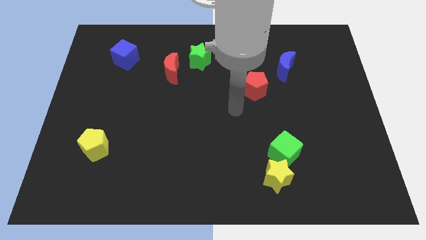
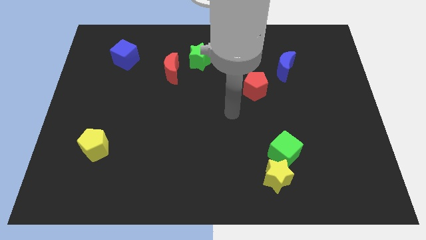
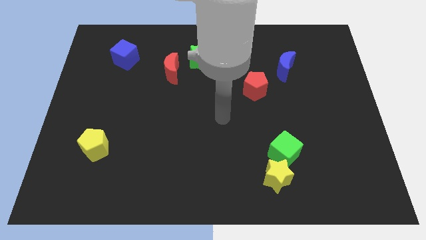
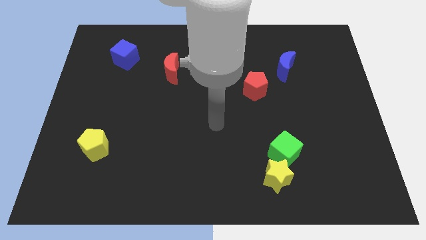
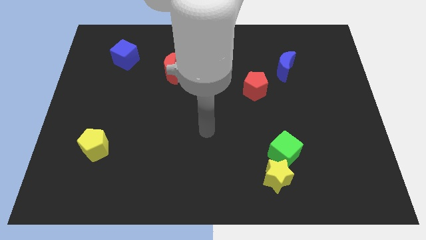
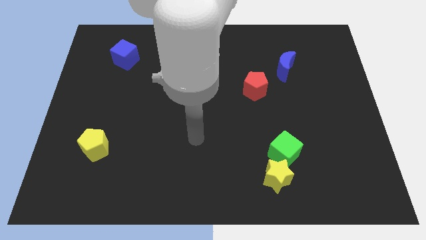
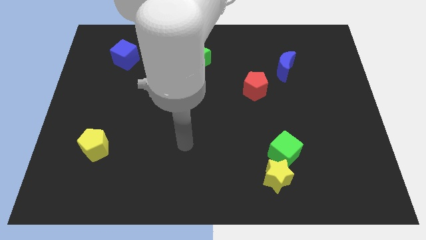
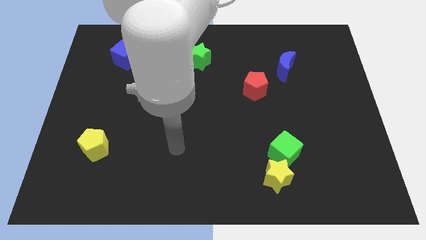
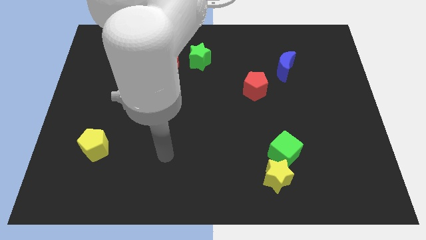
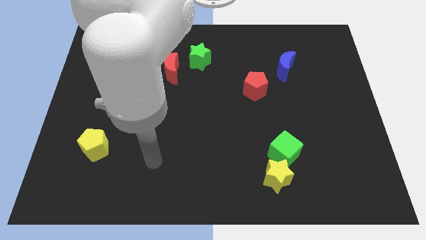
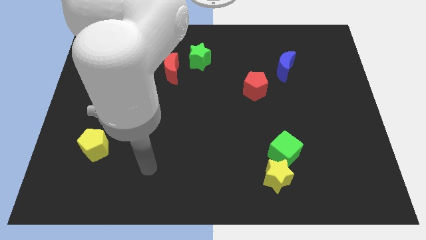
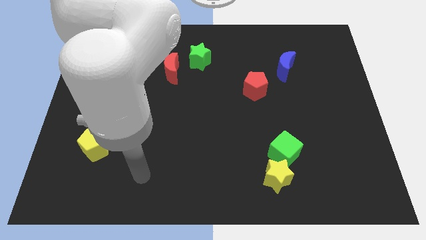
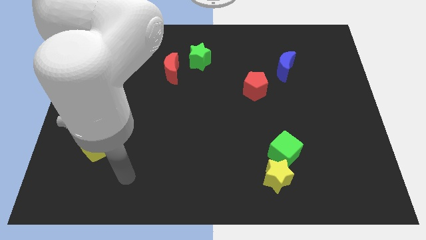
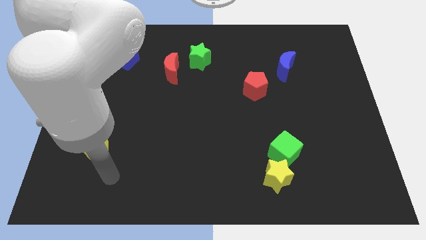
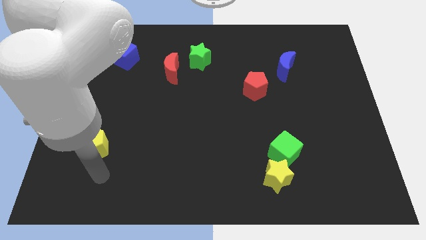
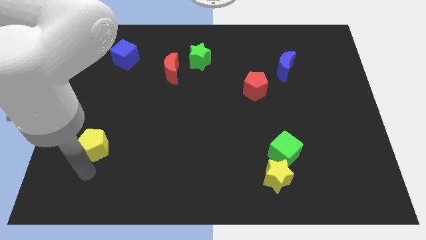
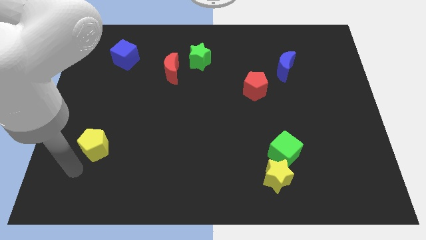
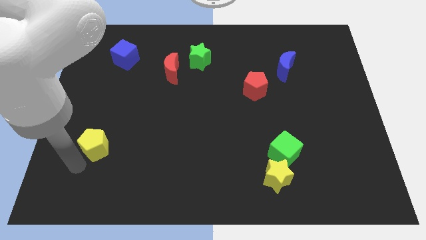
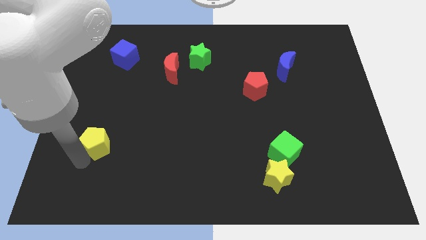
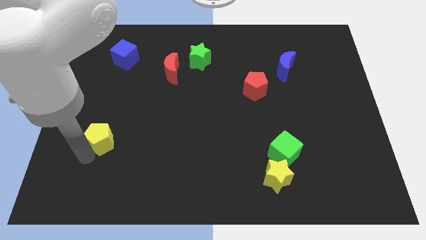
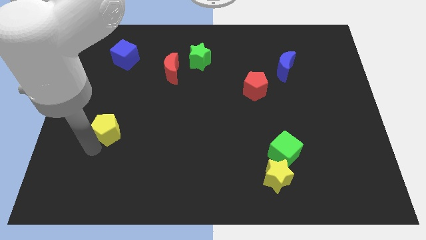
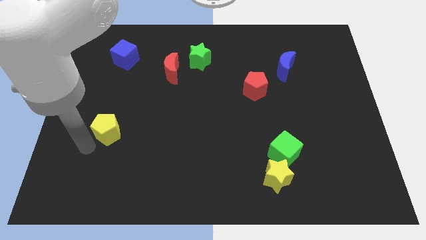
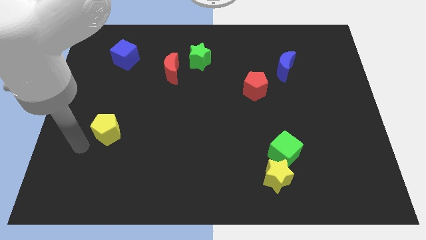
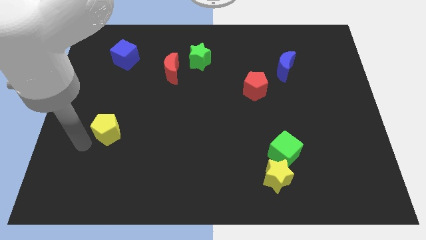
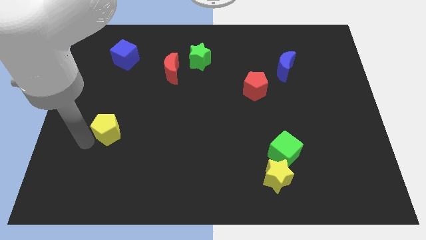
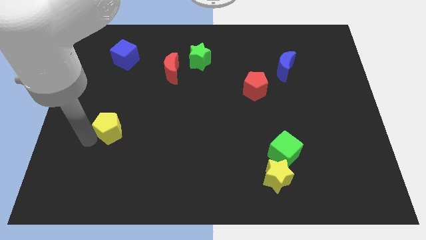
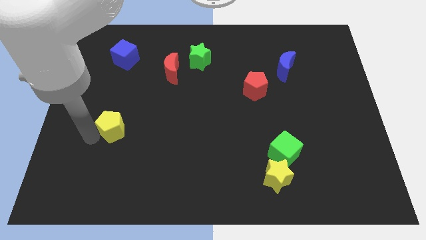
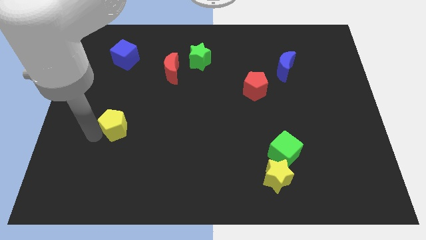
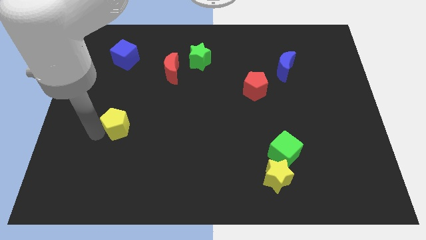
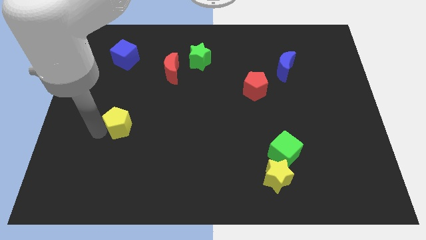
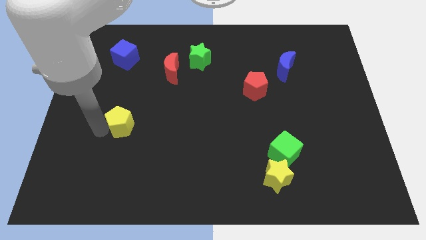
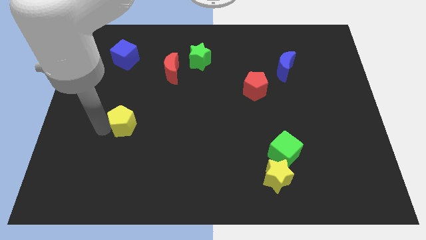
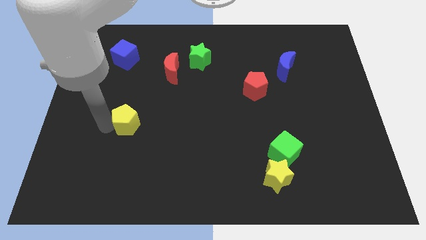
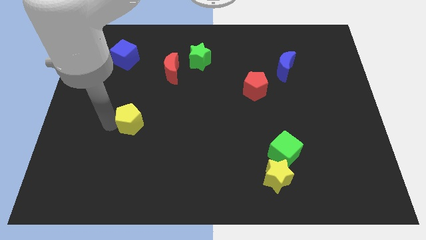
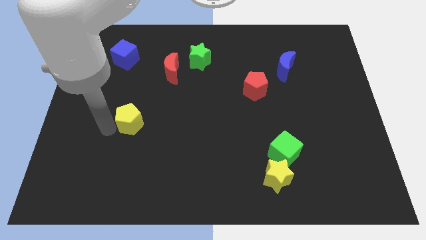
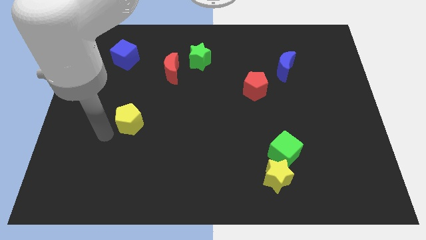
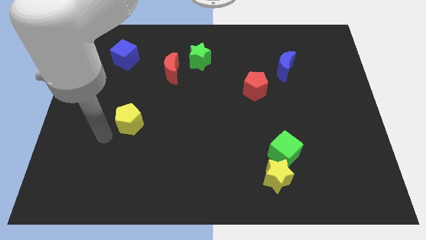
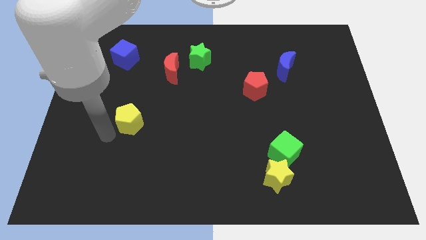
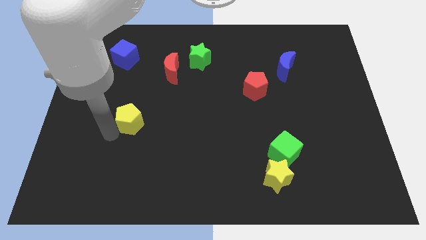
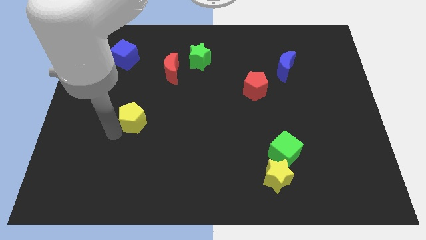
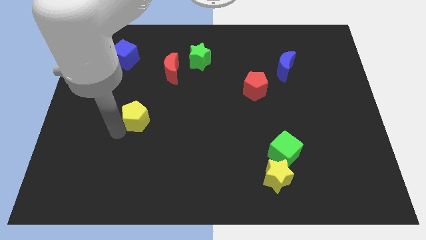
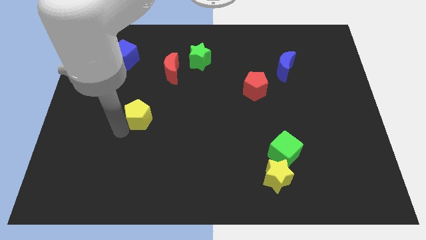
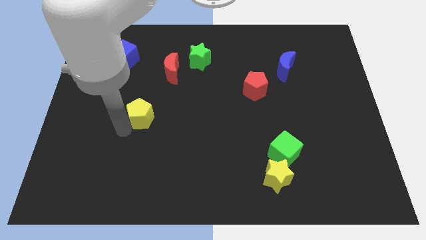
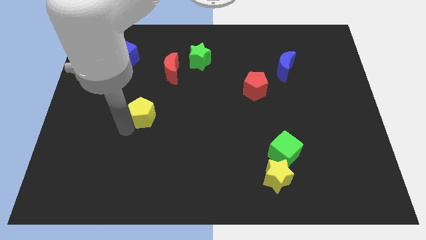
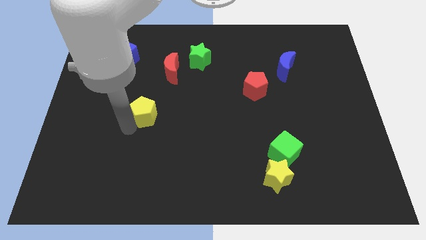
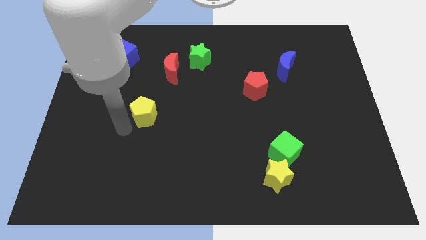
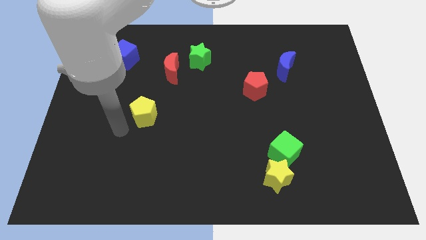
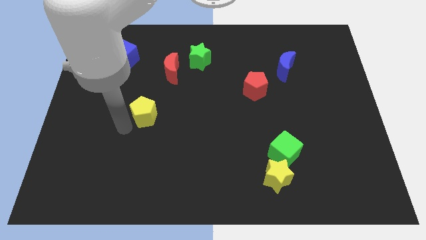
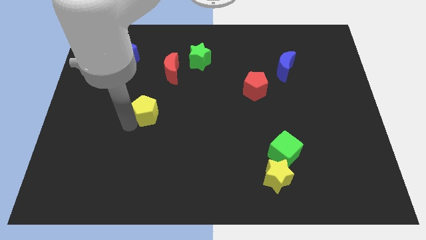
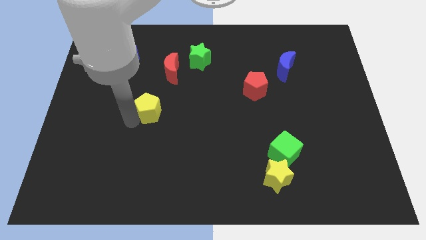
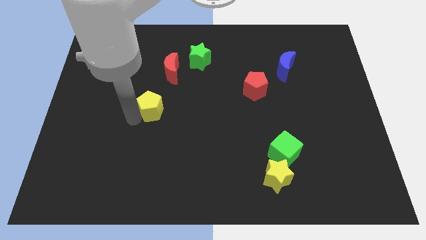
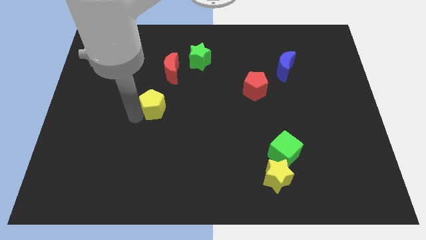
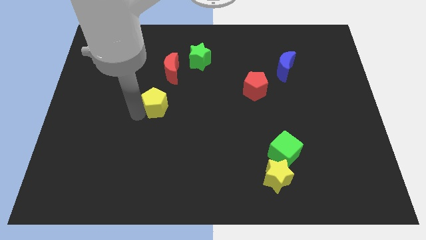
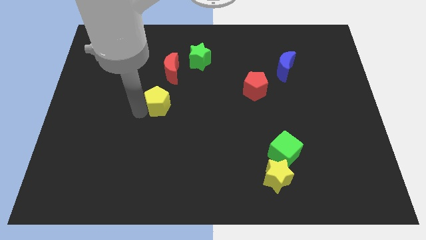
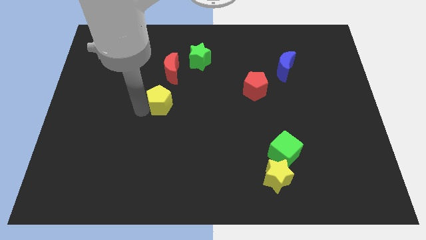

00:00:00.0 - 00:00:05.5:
move the yellow pentagon to the center

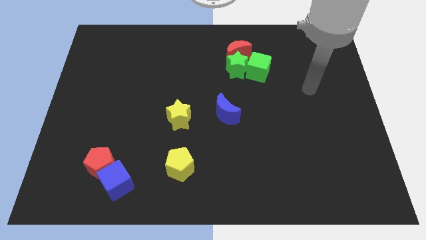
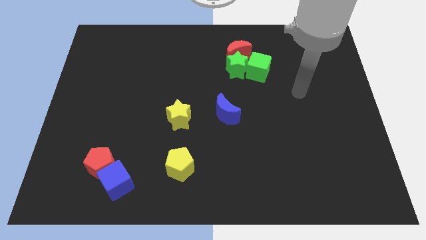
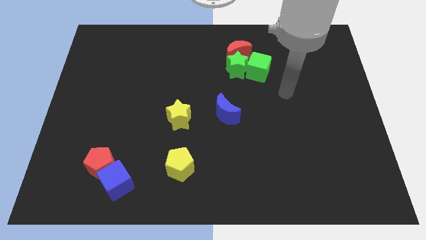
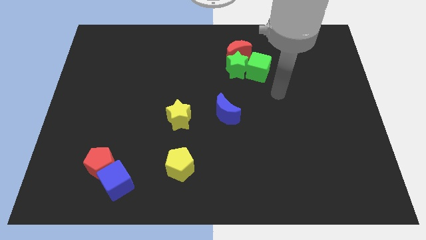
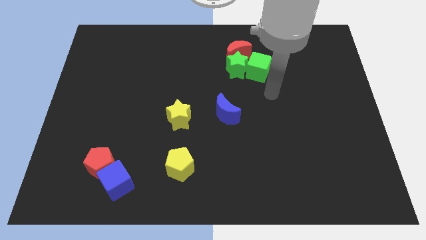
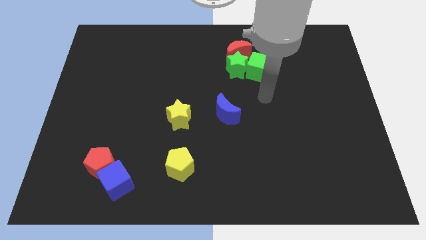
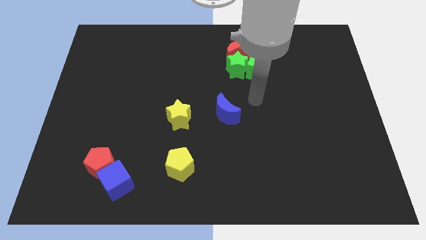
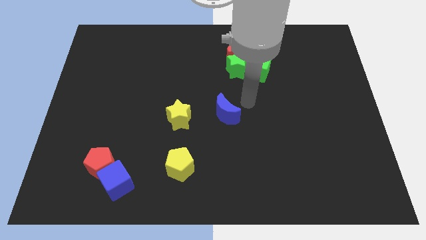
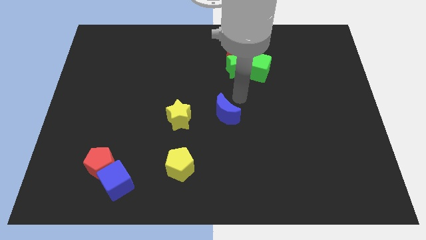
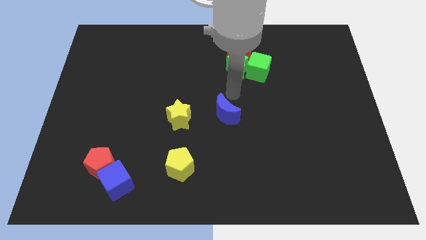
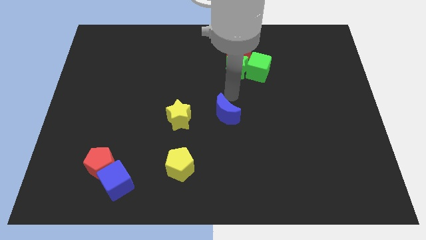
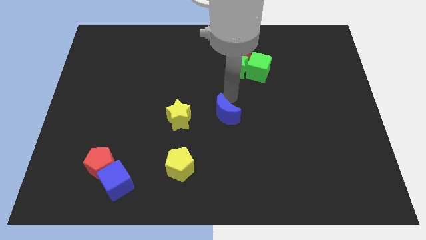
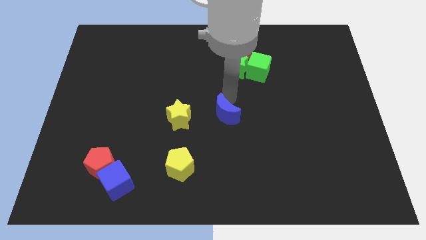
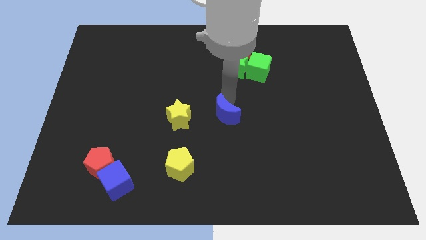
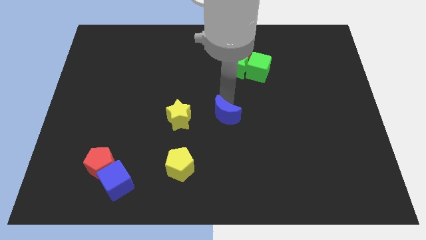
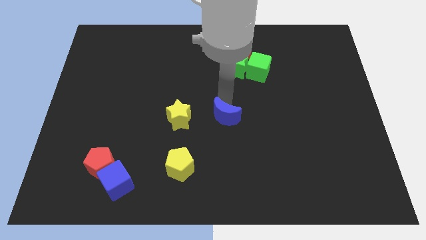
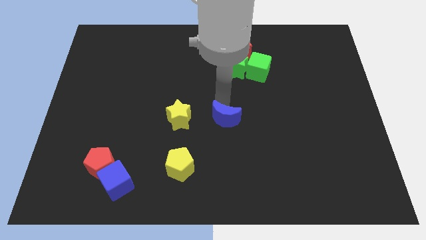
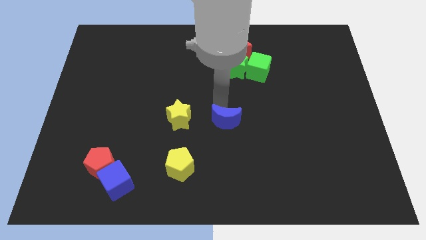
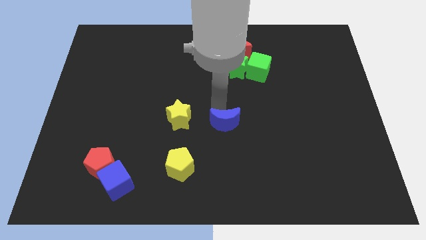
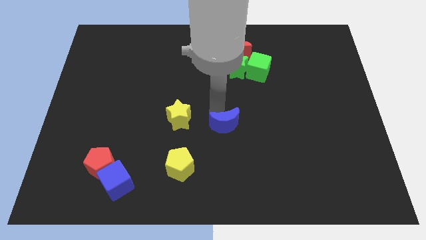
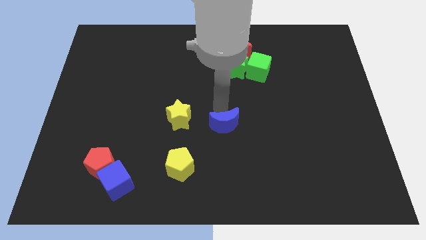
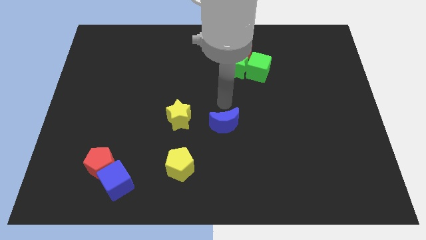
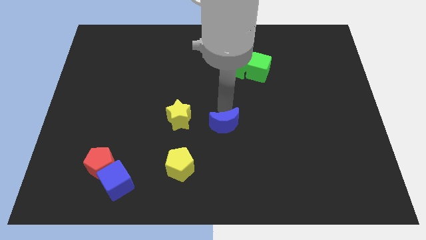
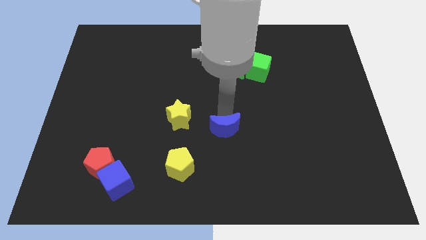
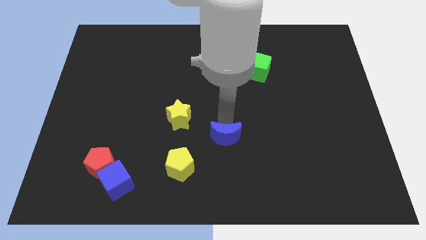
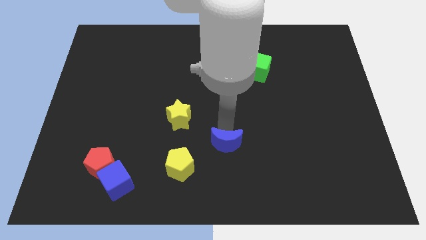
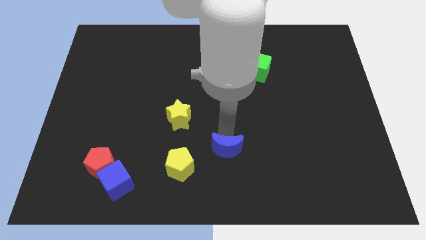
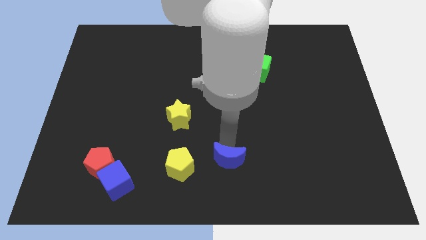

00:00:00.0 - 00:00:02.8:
slide the blue moon to the bottom

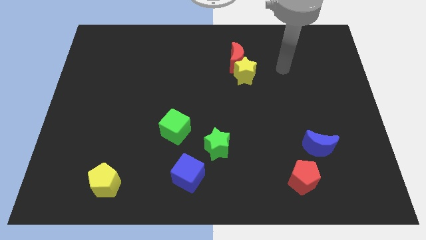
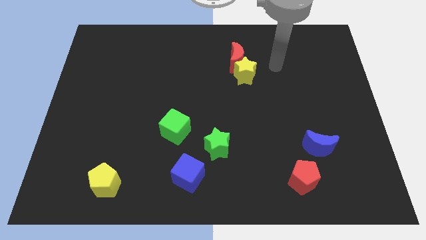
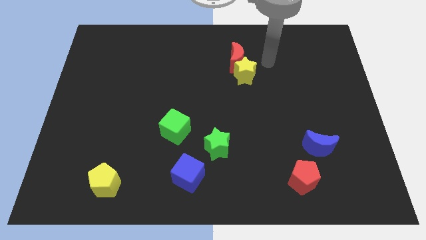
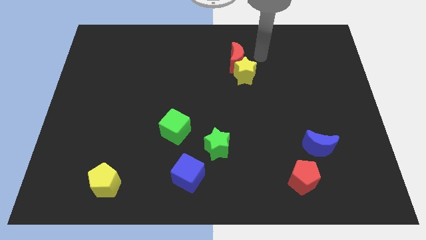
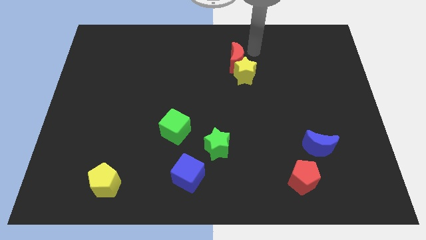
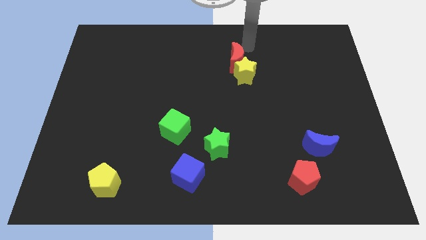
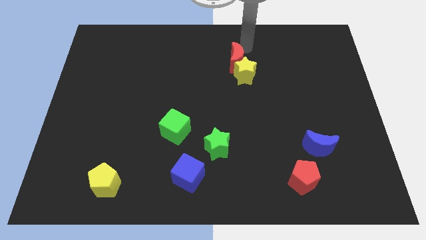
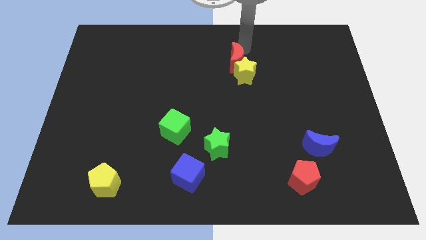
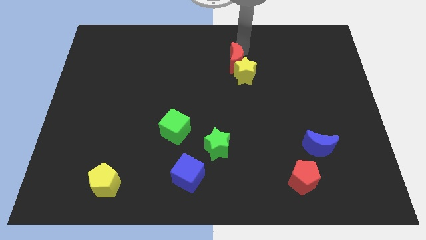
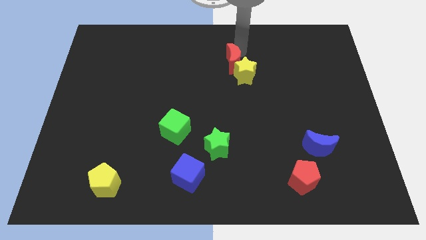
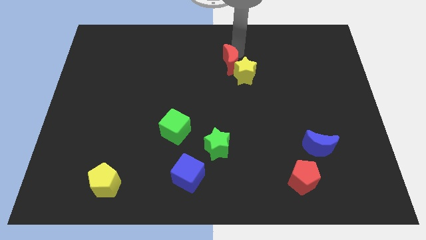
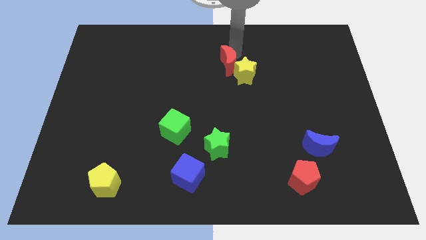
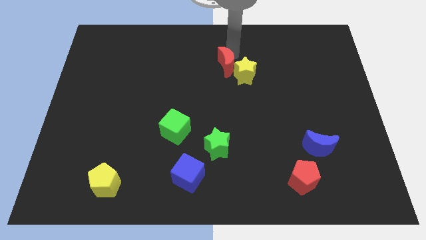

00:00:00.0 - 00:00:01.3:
put the red moon to the center
